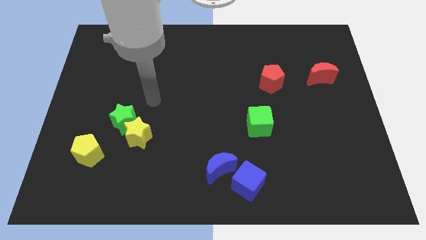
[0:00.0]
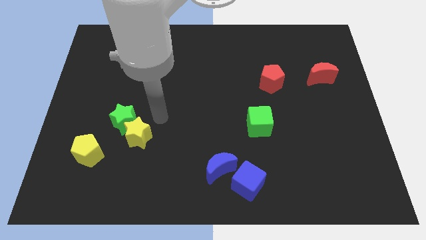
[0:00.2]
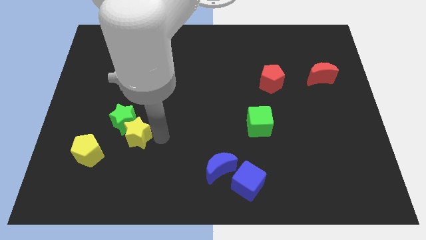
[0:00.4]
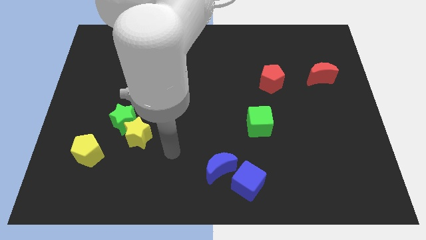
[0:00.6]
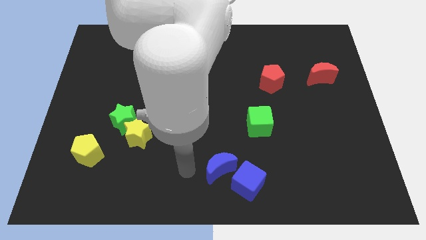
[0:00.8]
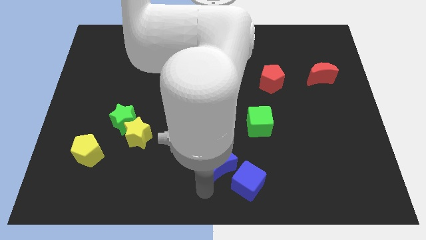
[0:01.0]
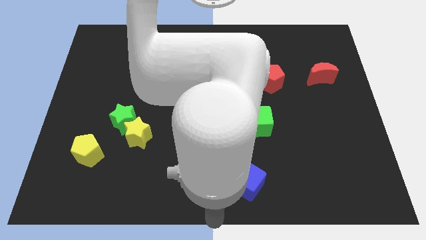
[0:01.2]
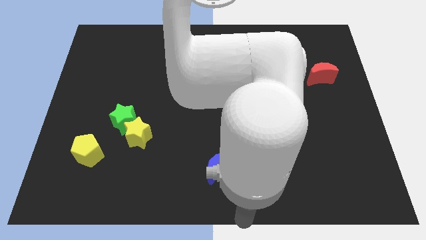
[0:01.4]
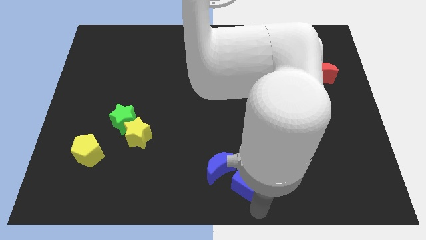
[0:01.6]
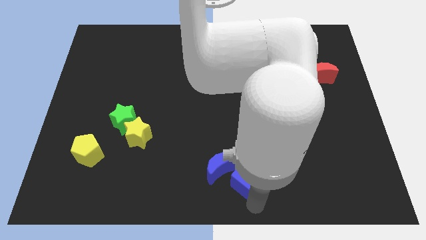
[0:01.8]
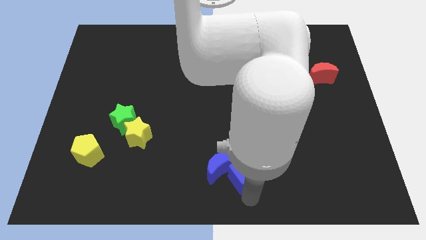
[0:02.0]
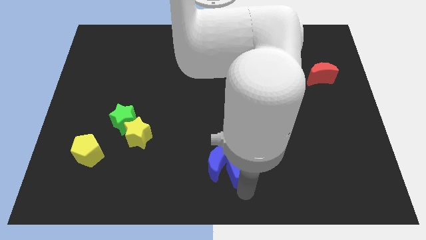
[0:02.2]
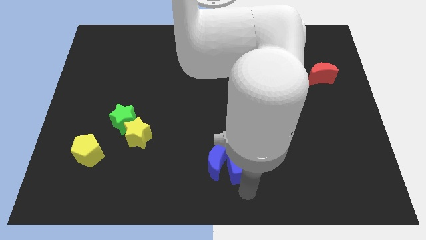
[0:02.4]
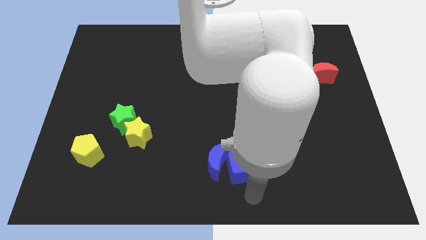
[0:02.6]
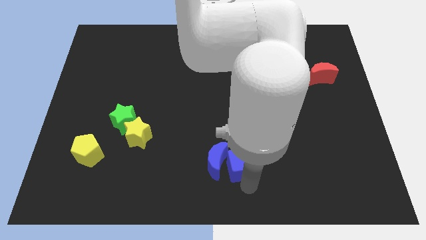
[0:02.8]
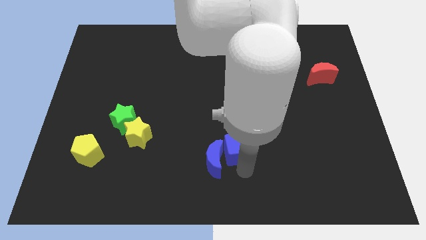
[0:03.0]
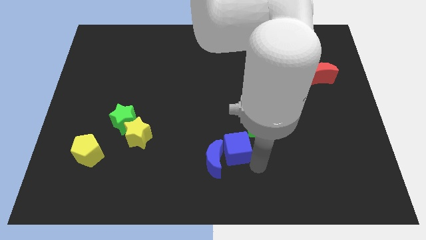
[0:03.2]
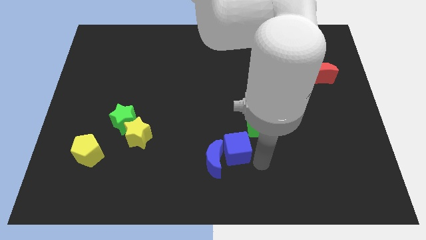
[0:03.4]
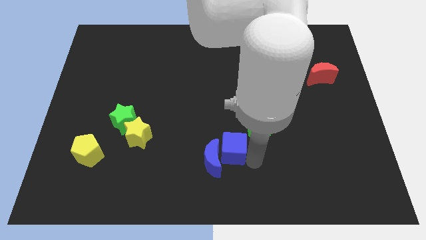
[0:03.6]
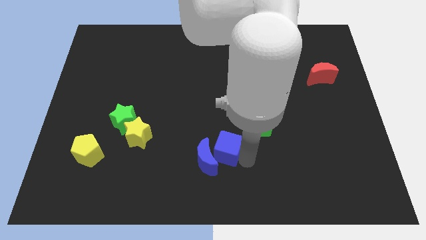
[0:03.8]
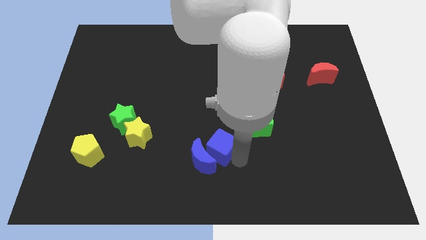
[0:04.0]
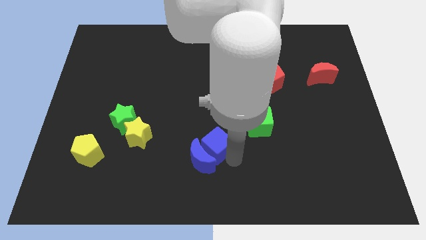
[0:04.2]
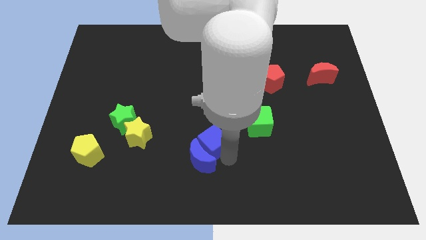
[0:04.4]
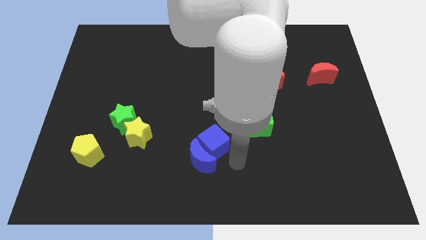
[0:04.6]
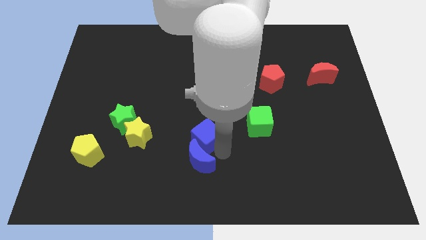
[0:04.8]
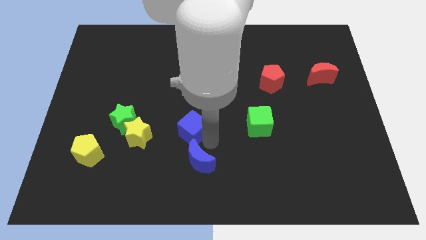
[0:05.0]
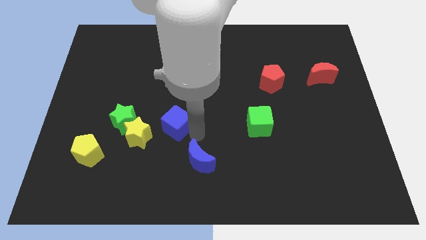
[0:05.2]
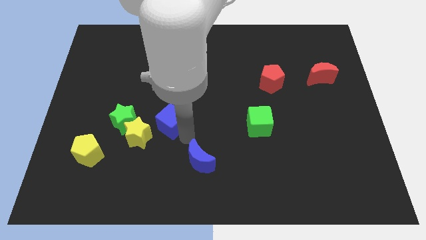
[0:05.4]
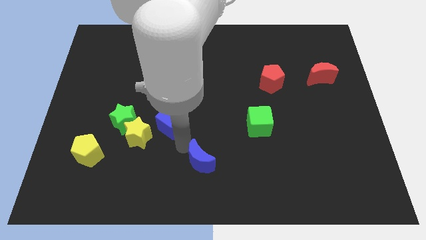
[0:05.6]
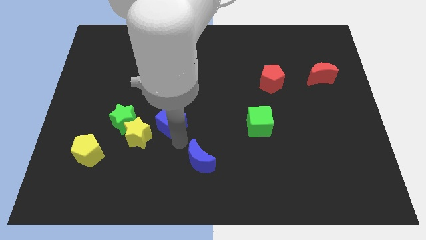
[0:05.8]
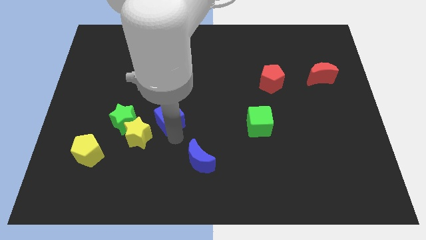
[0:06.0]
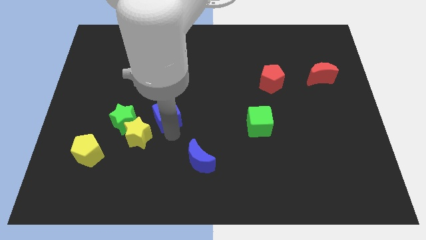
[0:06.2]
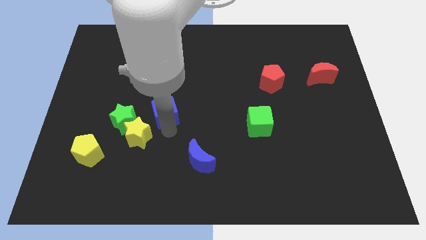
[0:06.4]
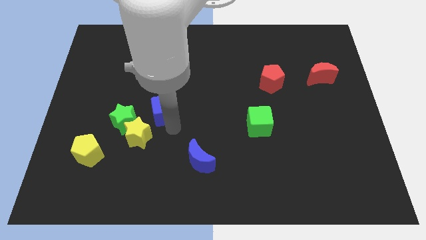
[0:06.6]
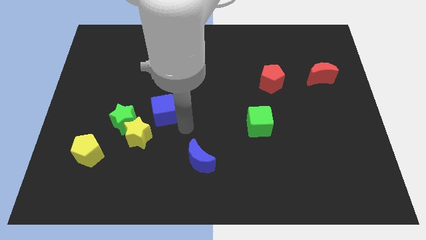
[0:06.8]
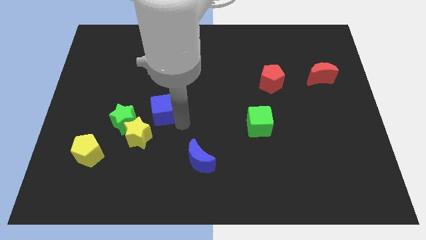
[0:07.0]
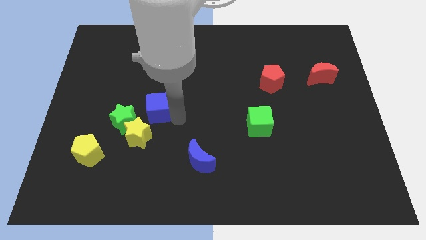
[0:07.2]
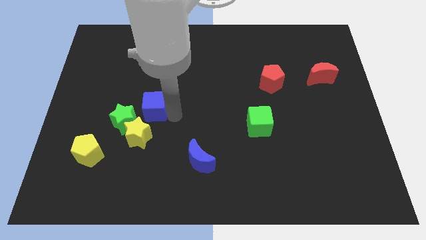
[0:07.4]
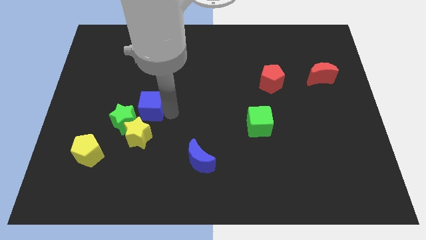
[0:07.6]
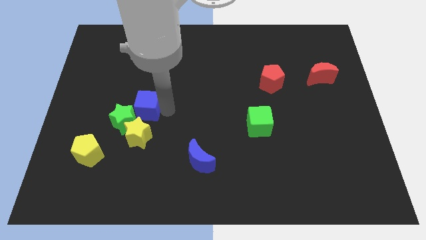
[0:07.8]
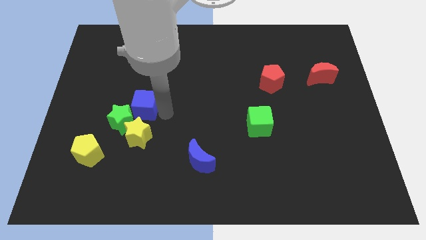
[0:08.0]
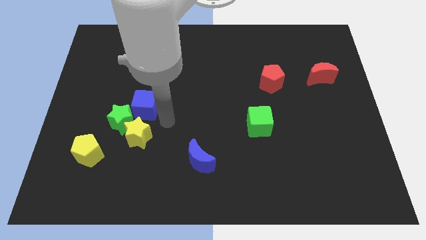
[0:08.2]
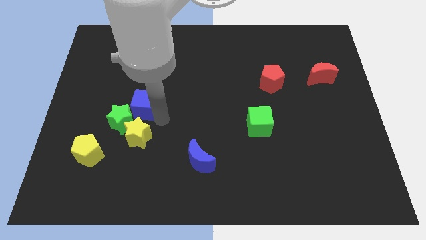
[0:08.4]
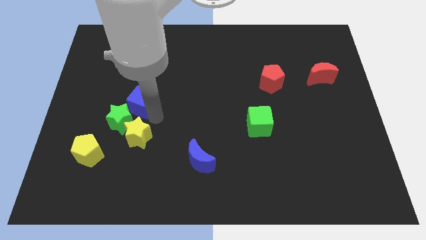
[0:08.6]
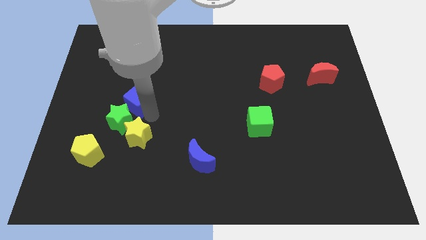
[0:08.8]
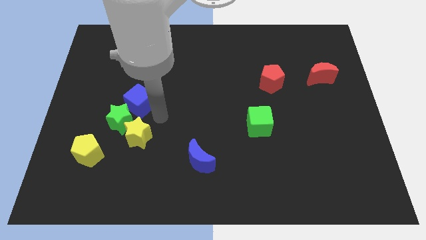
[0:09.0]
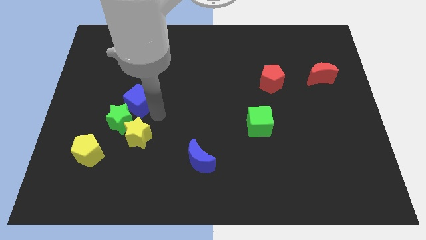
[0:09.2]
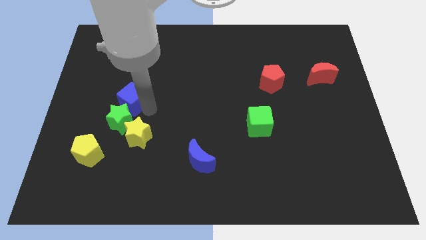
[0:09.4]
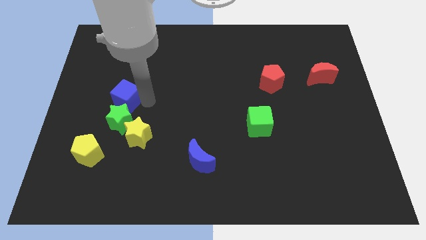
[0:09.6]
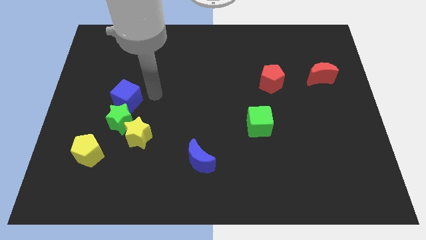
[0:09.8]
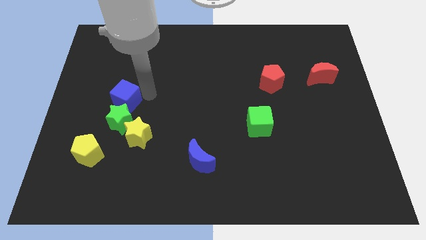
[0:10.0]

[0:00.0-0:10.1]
move the blue cube to the top left of the green star

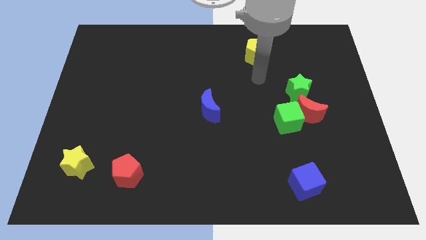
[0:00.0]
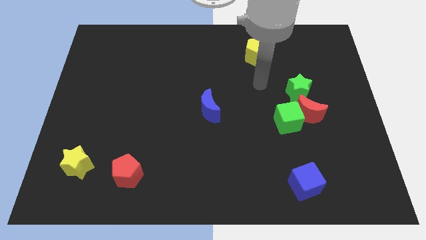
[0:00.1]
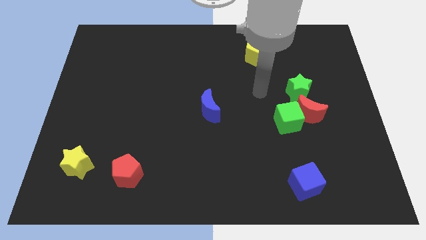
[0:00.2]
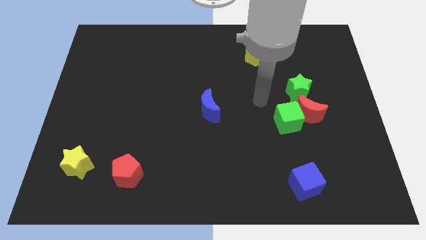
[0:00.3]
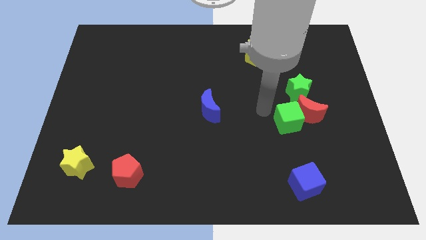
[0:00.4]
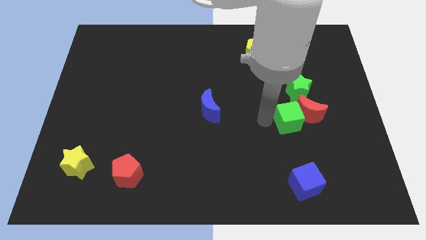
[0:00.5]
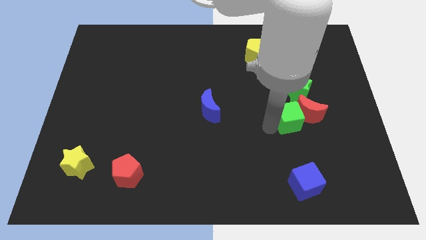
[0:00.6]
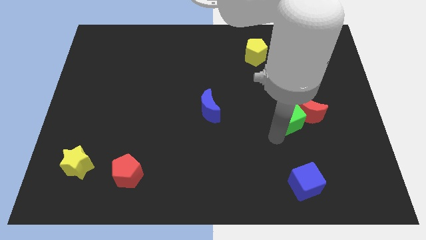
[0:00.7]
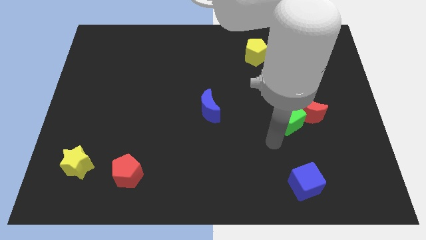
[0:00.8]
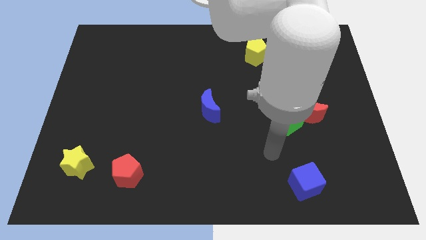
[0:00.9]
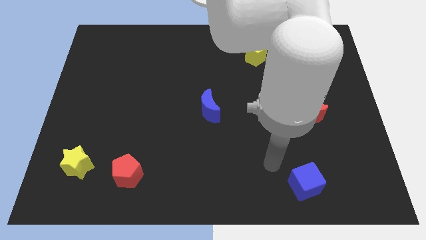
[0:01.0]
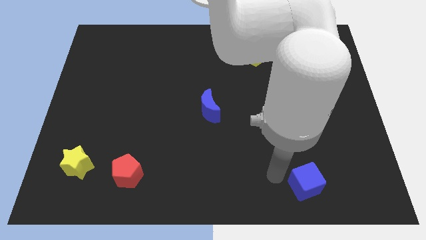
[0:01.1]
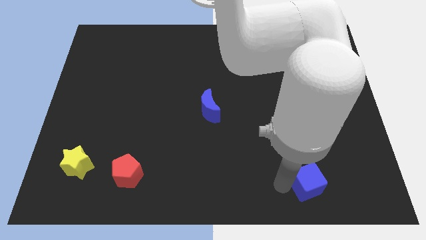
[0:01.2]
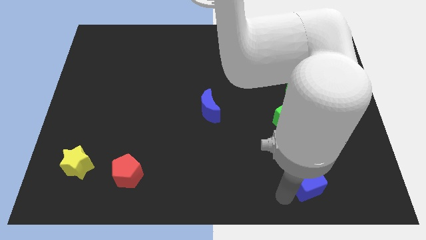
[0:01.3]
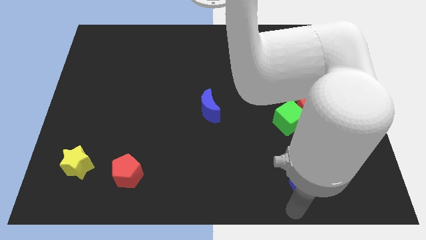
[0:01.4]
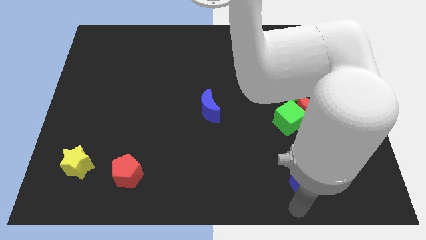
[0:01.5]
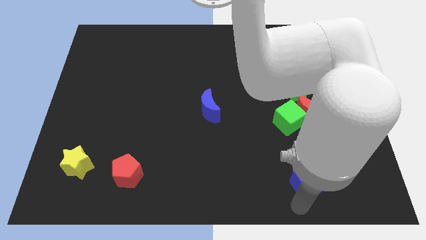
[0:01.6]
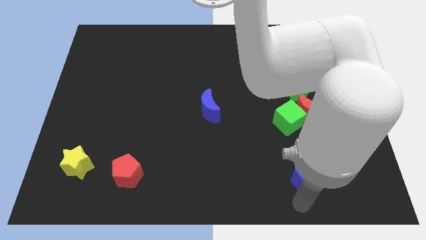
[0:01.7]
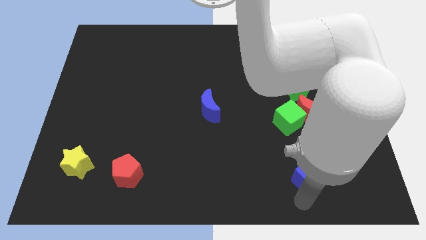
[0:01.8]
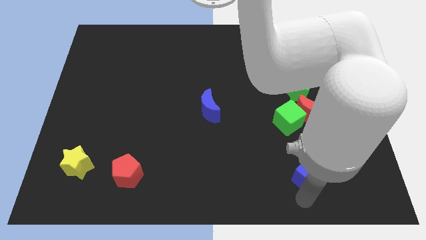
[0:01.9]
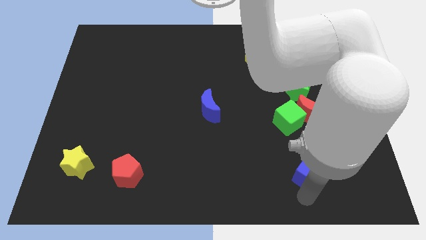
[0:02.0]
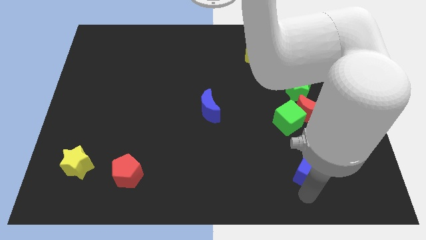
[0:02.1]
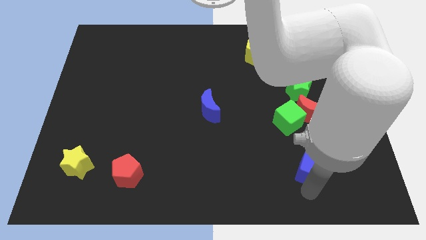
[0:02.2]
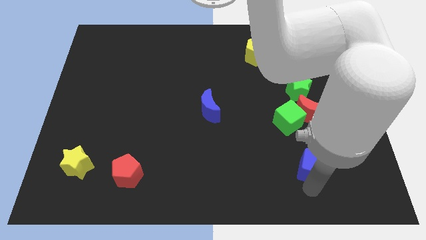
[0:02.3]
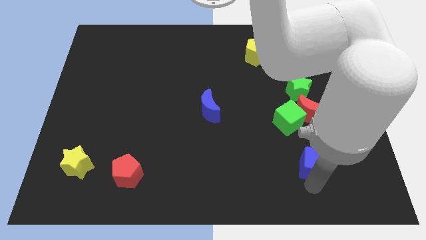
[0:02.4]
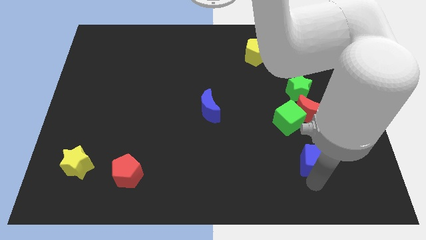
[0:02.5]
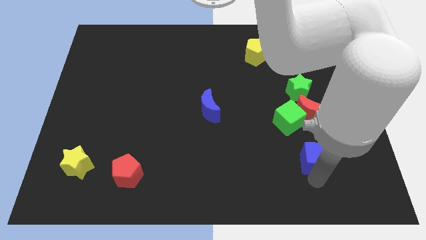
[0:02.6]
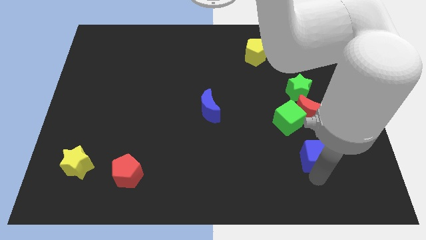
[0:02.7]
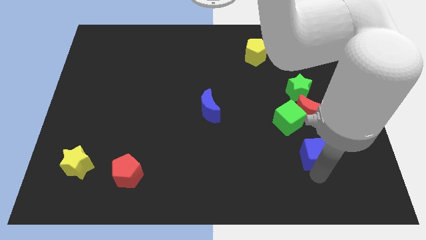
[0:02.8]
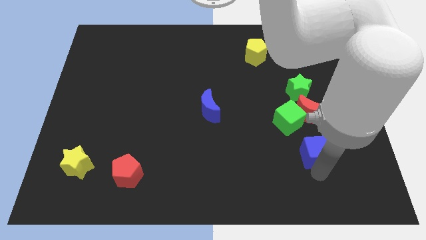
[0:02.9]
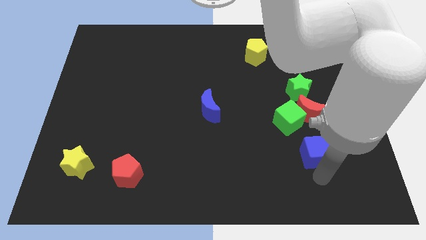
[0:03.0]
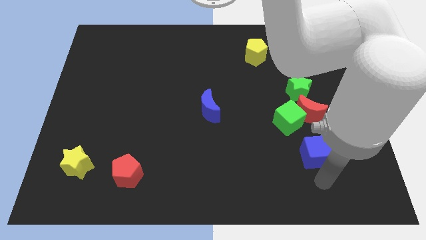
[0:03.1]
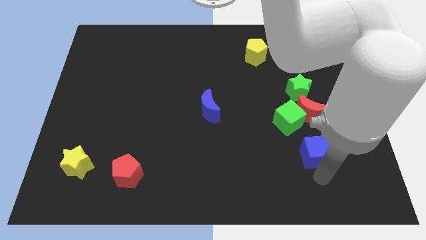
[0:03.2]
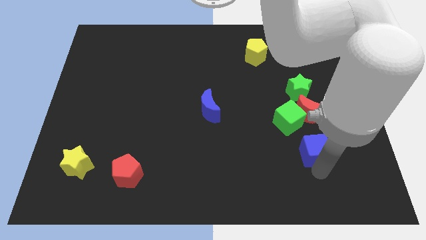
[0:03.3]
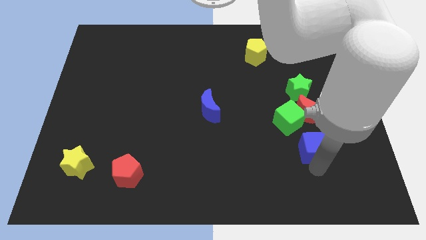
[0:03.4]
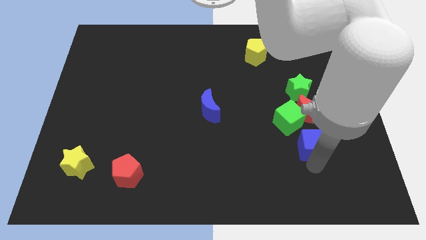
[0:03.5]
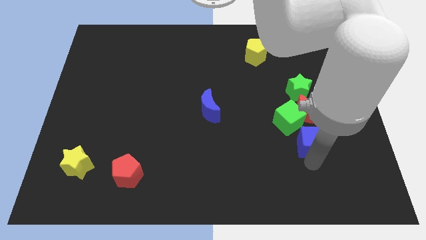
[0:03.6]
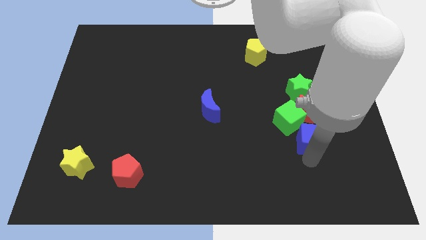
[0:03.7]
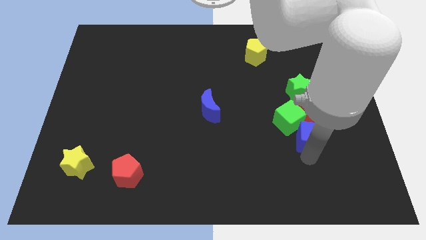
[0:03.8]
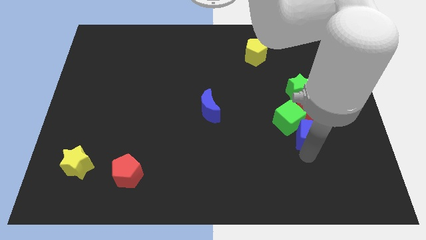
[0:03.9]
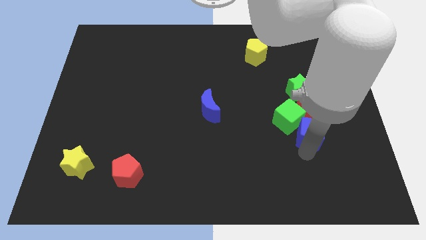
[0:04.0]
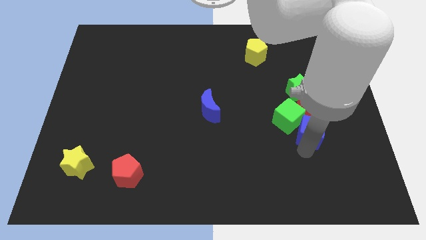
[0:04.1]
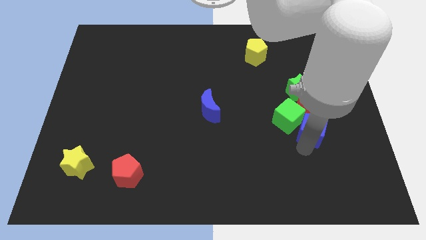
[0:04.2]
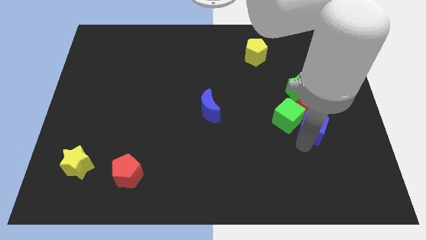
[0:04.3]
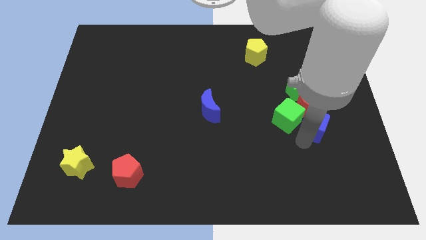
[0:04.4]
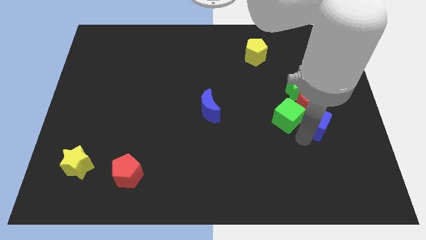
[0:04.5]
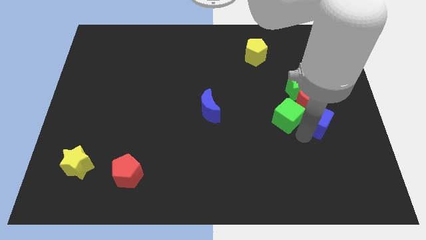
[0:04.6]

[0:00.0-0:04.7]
slide the blue cube to the bottom right side of the green star
